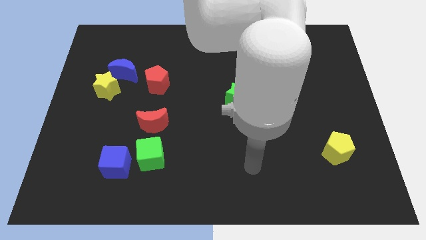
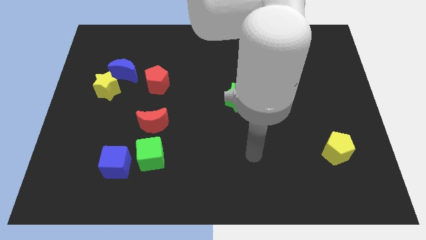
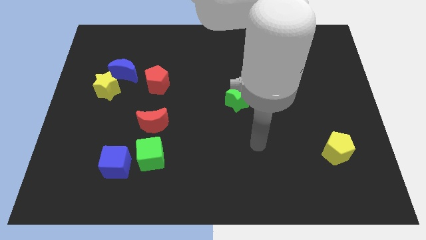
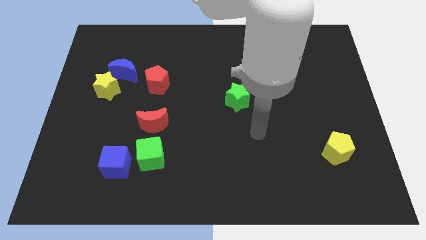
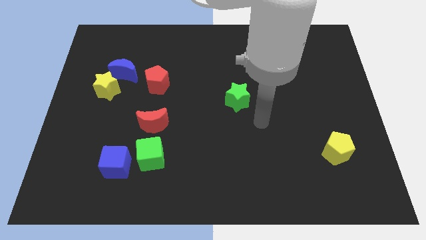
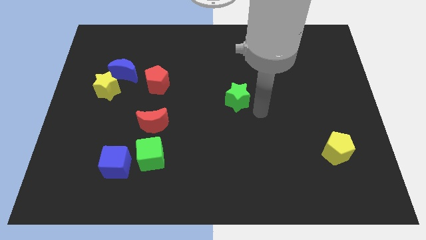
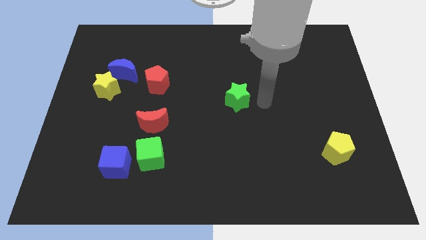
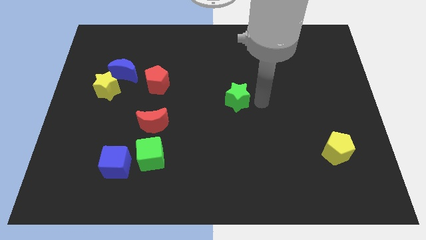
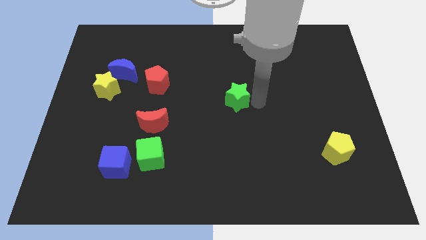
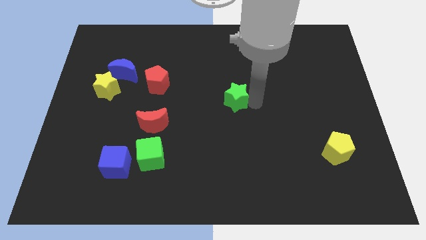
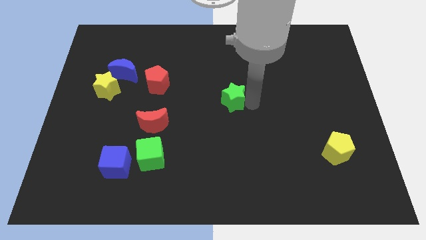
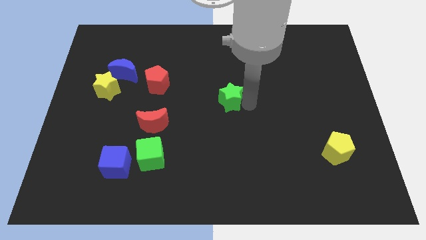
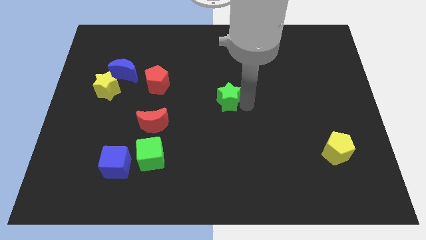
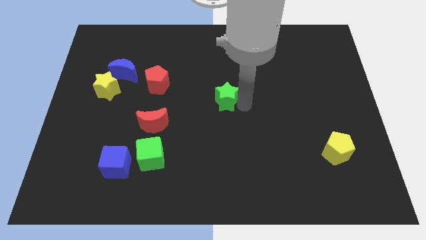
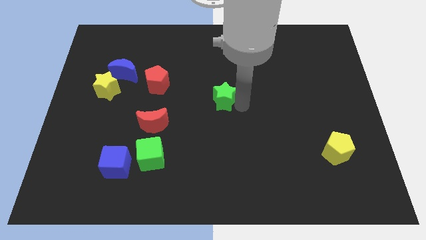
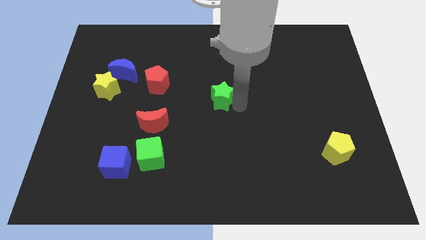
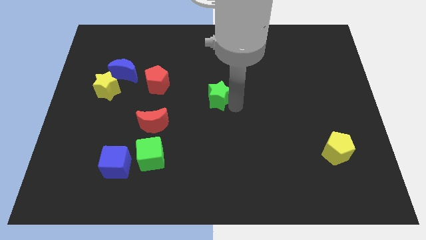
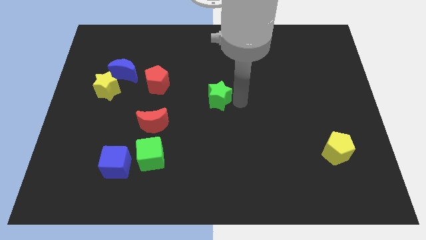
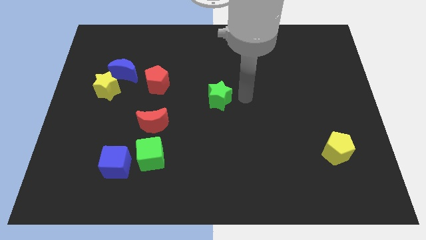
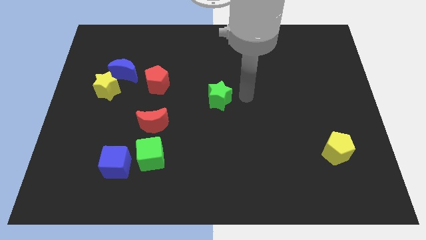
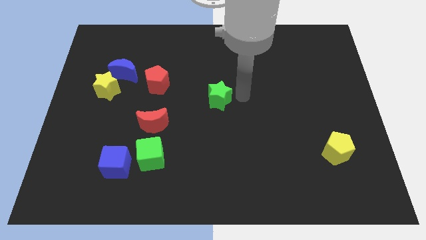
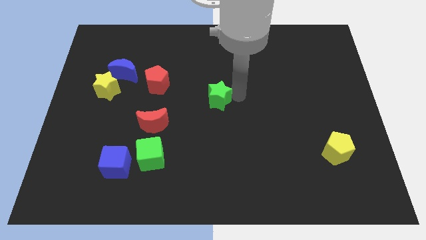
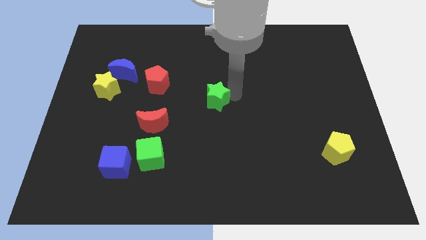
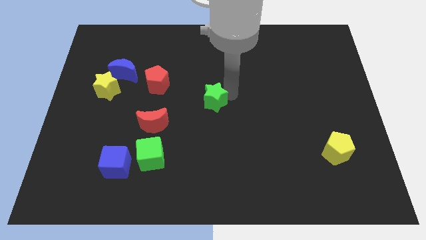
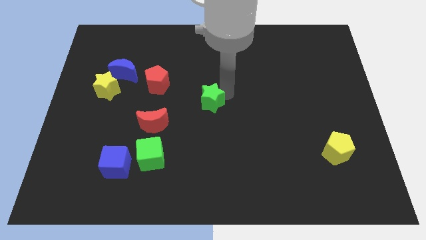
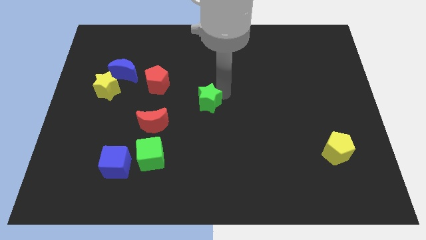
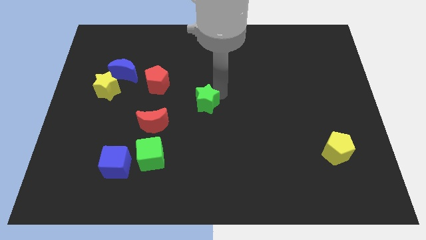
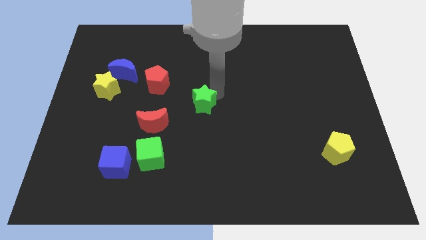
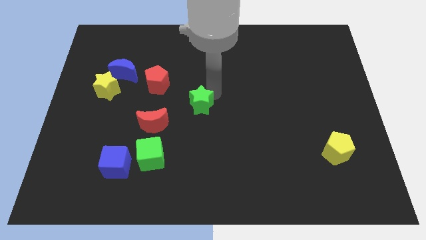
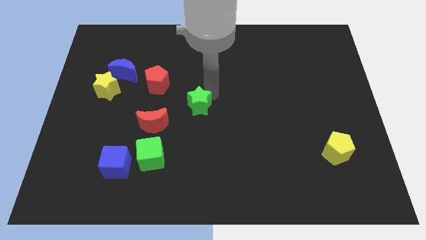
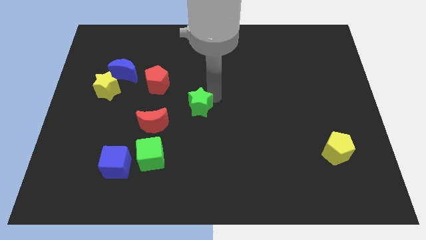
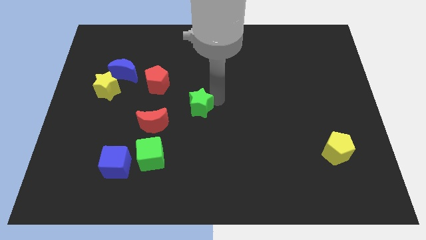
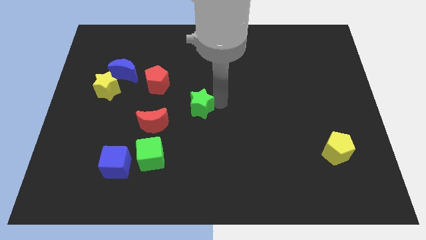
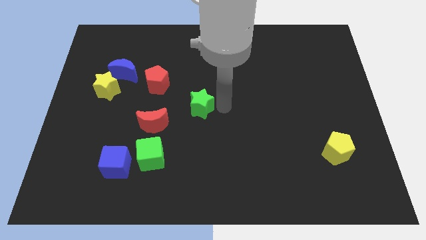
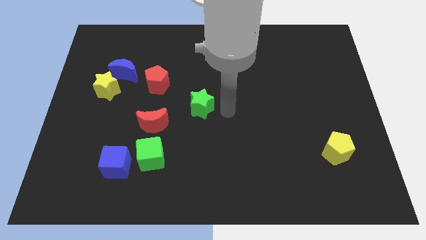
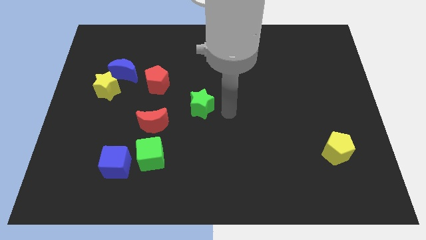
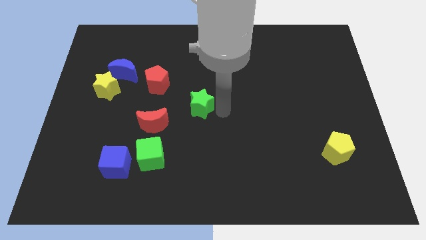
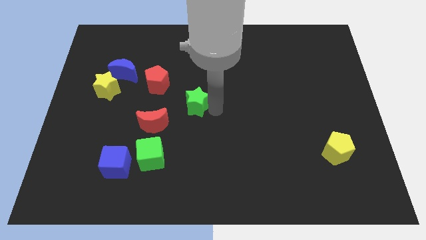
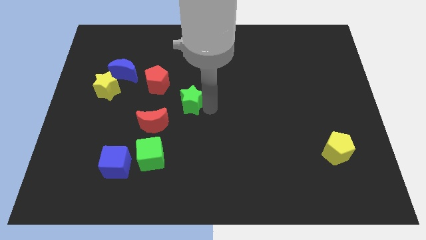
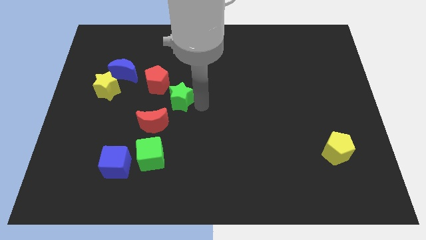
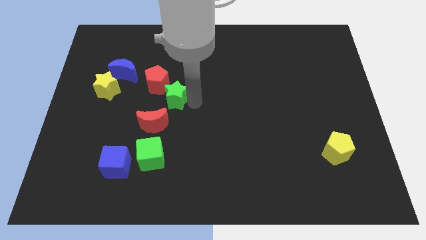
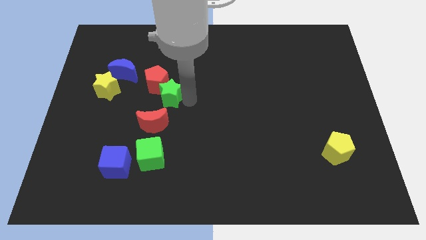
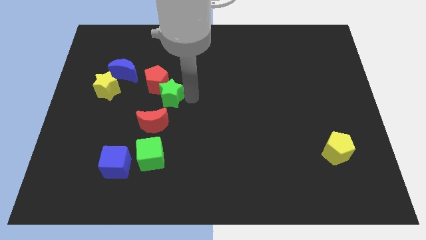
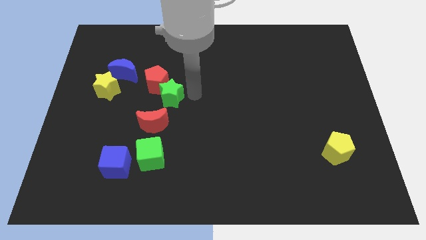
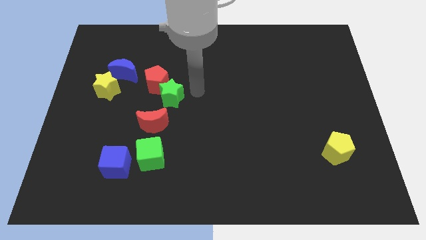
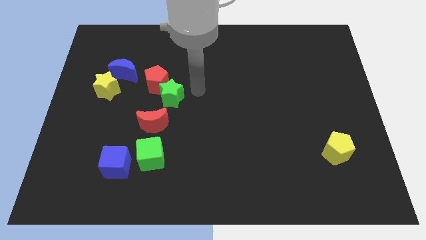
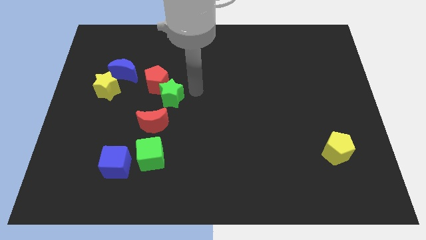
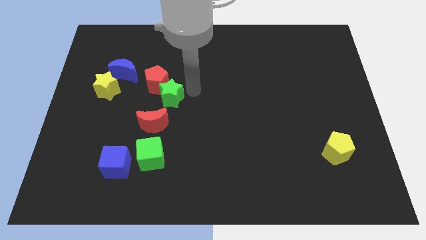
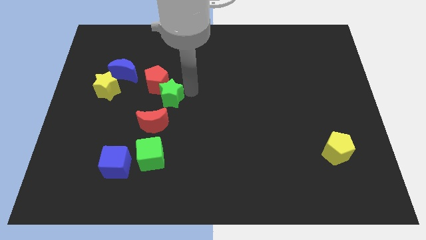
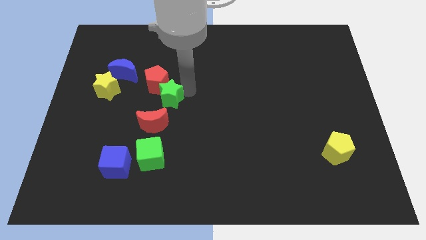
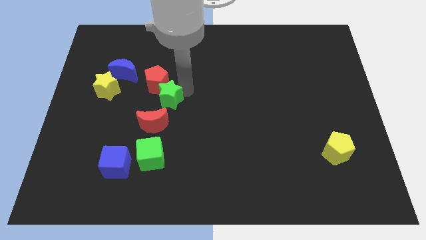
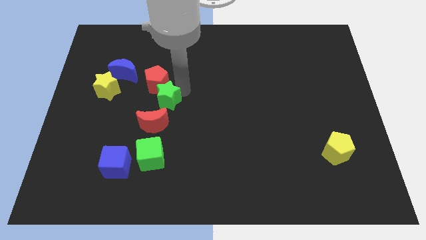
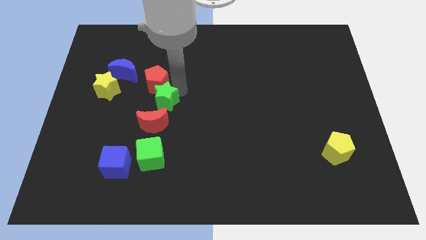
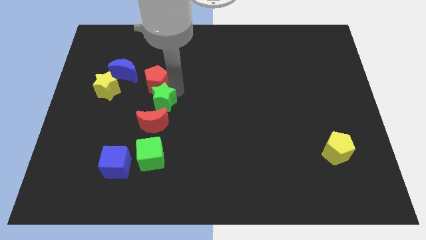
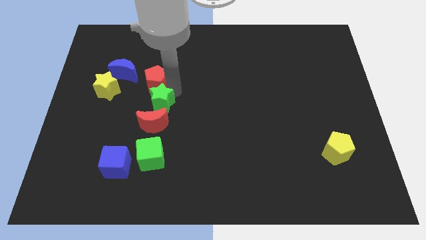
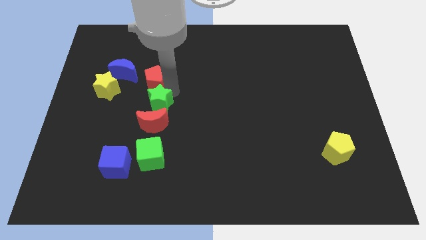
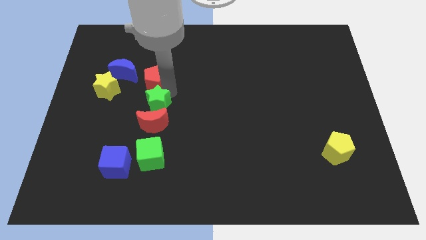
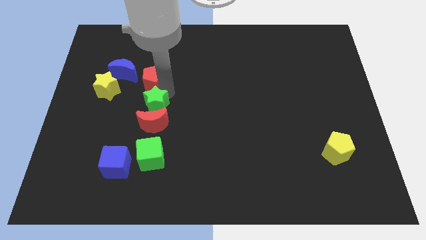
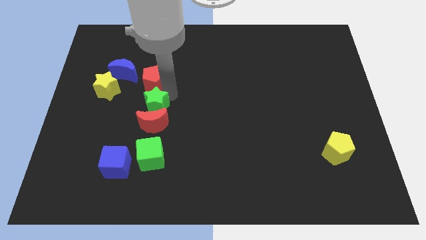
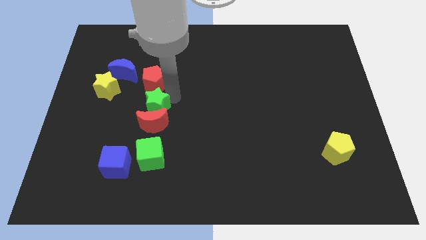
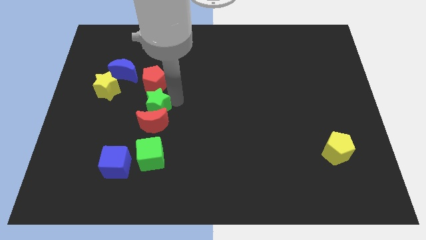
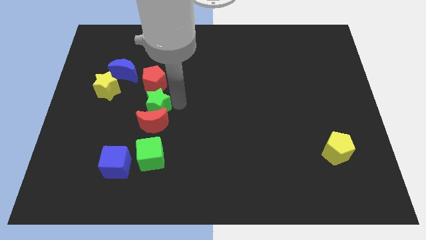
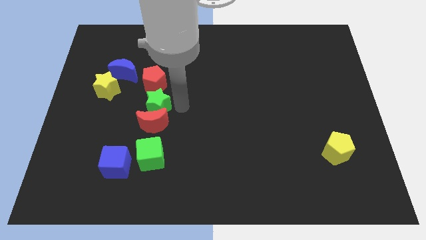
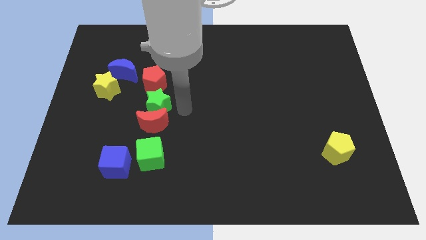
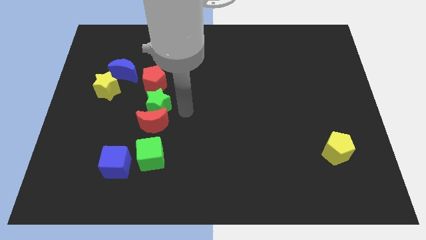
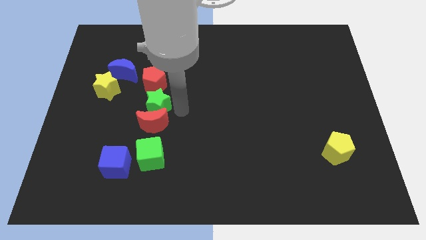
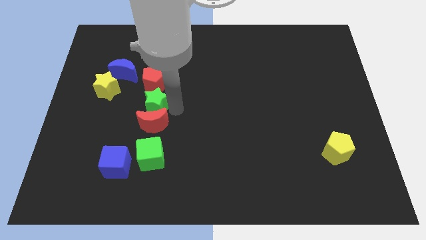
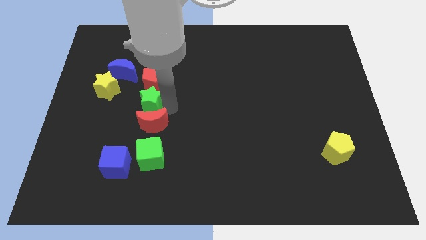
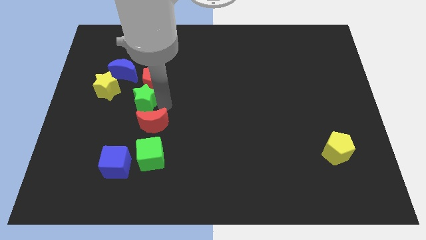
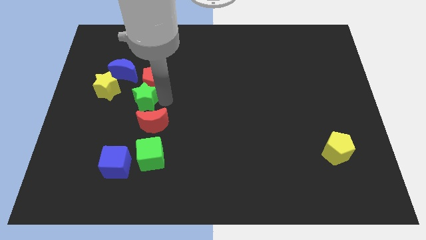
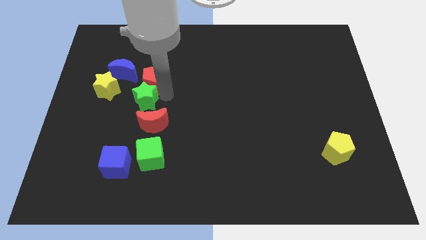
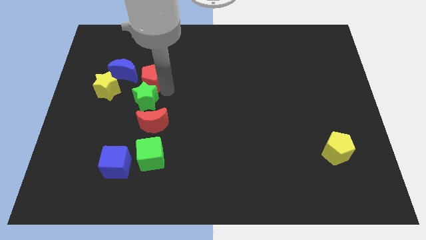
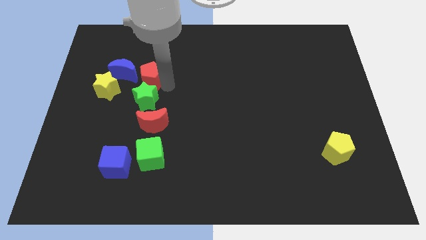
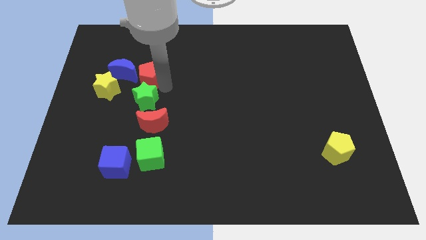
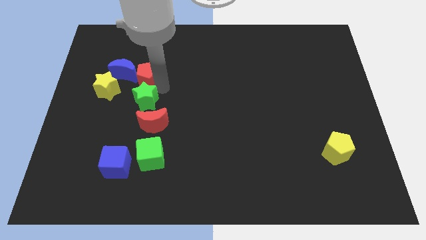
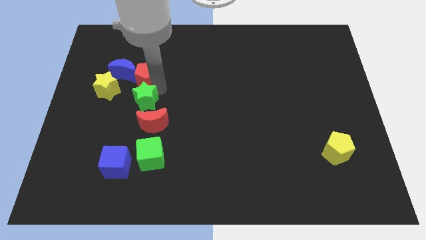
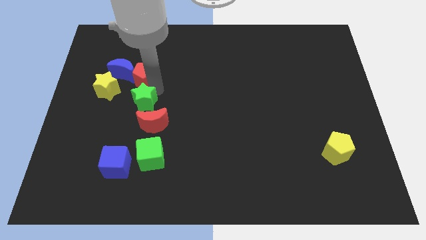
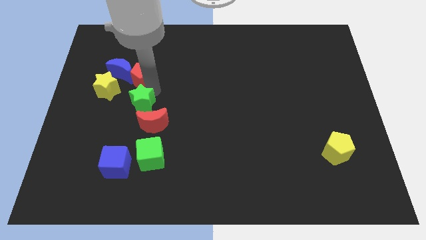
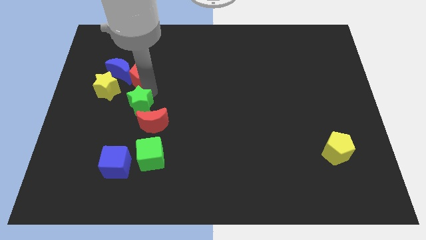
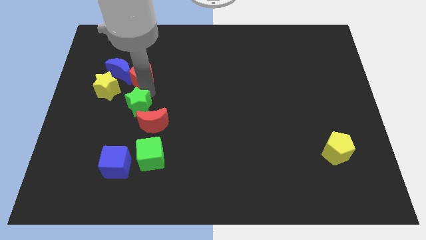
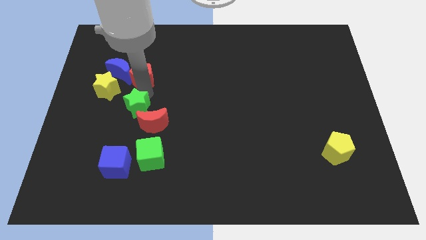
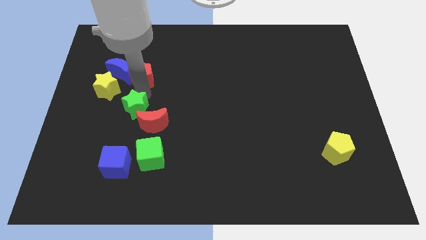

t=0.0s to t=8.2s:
slide the green star to the left side of the red moon
